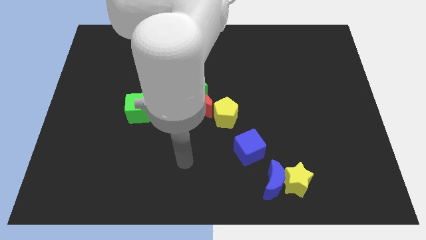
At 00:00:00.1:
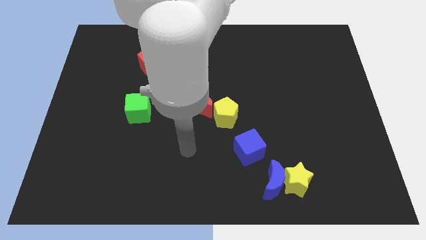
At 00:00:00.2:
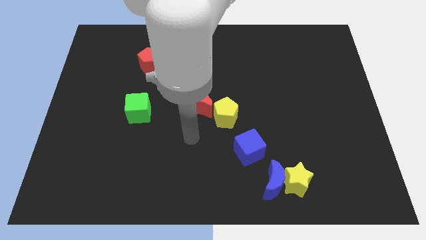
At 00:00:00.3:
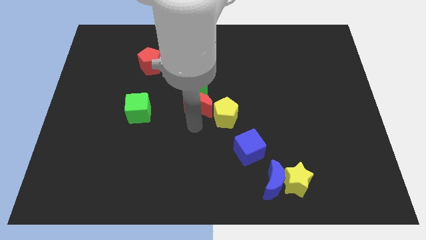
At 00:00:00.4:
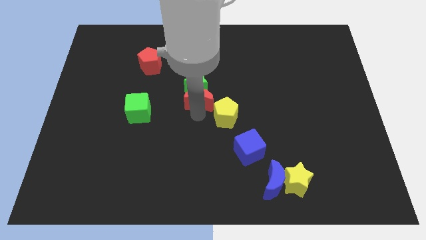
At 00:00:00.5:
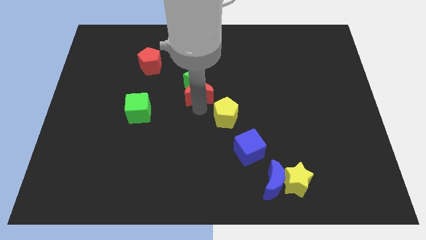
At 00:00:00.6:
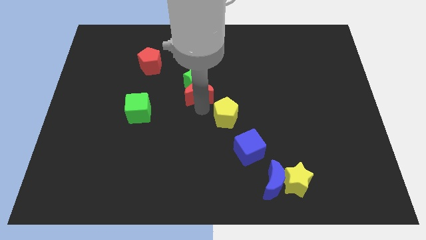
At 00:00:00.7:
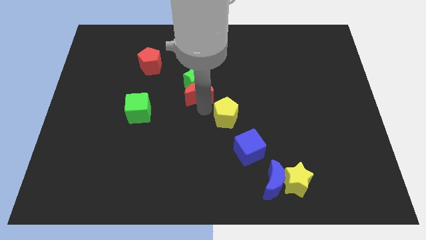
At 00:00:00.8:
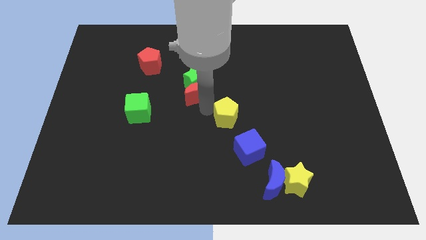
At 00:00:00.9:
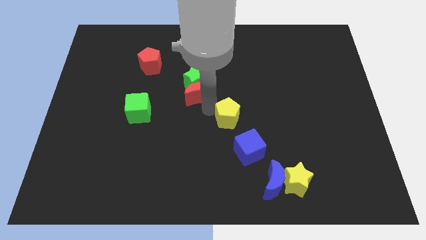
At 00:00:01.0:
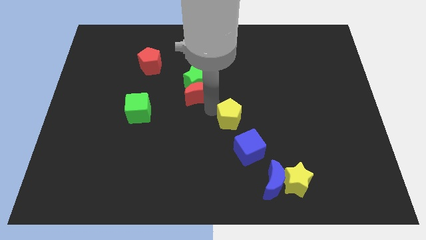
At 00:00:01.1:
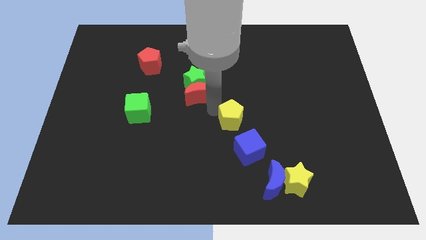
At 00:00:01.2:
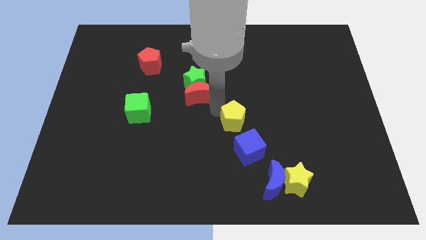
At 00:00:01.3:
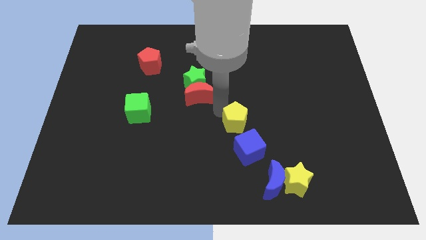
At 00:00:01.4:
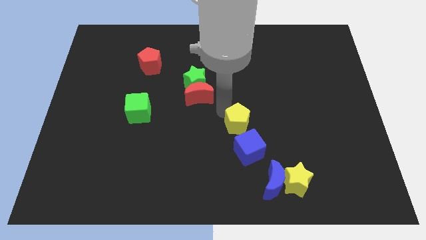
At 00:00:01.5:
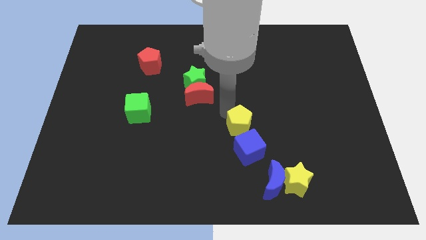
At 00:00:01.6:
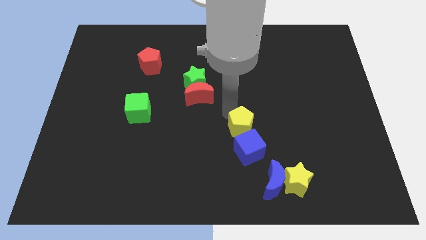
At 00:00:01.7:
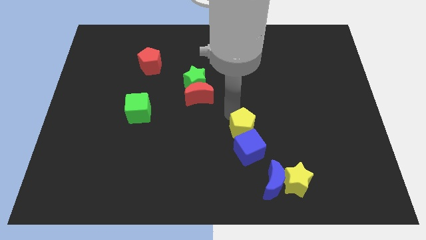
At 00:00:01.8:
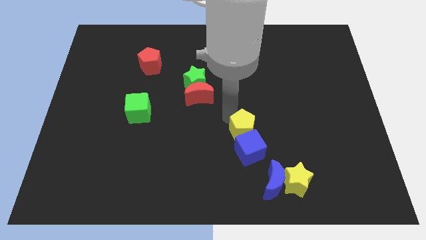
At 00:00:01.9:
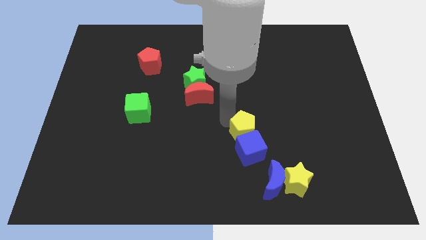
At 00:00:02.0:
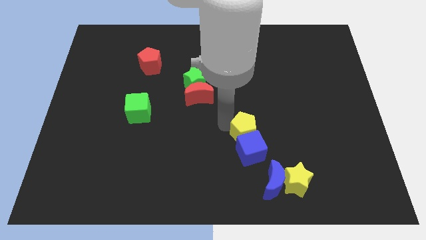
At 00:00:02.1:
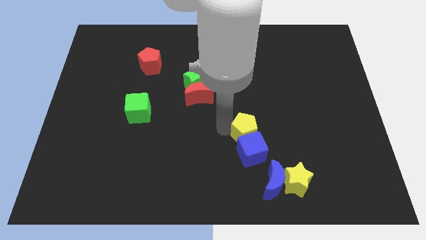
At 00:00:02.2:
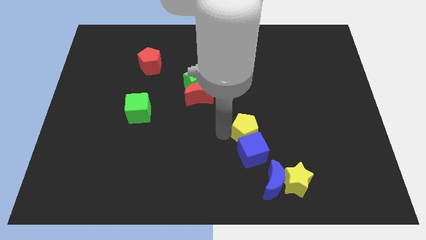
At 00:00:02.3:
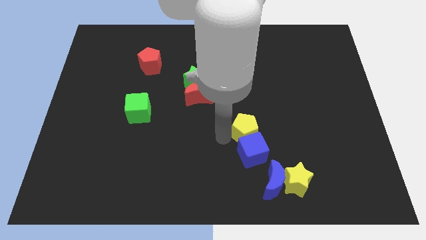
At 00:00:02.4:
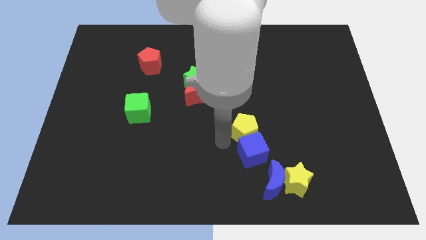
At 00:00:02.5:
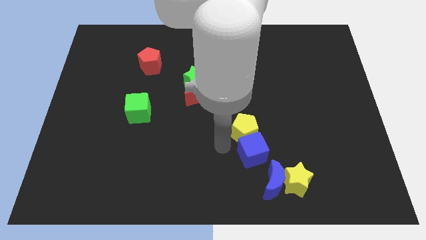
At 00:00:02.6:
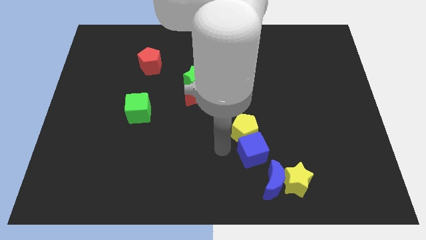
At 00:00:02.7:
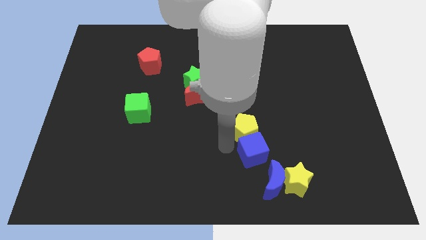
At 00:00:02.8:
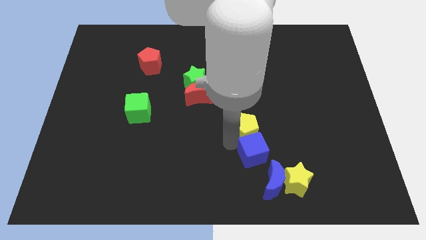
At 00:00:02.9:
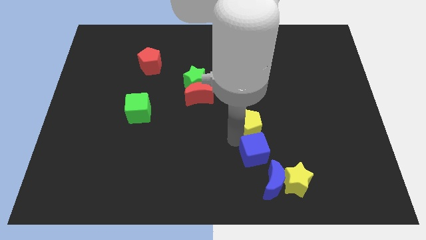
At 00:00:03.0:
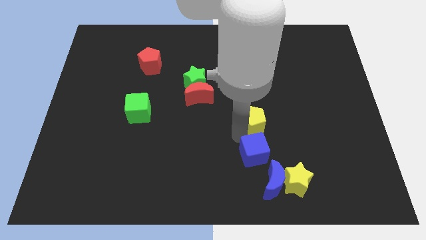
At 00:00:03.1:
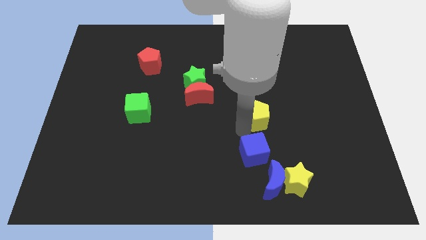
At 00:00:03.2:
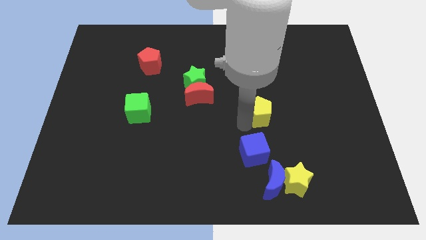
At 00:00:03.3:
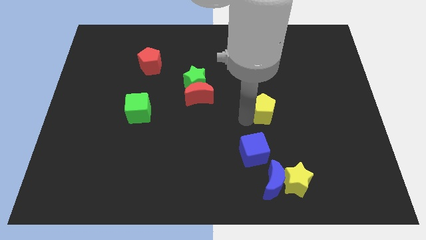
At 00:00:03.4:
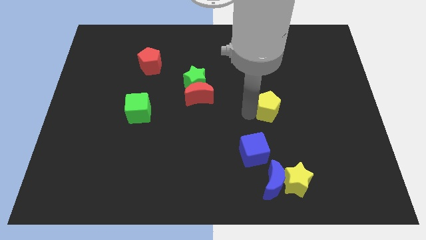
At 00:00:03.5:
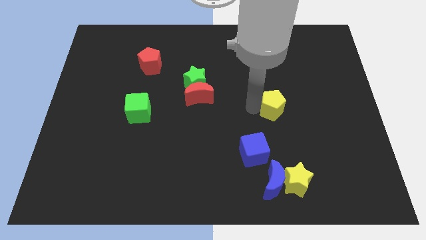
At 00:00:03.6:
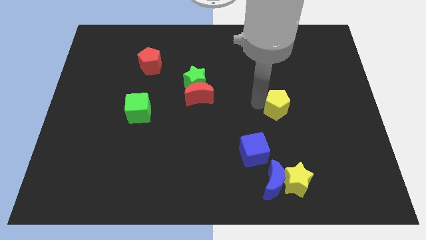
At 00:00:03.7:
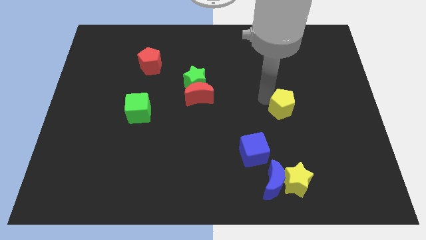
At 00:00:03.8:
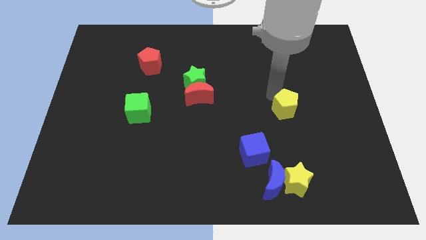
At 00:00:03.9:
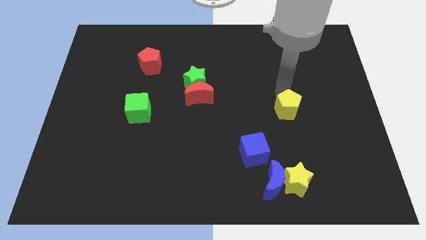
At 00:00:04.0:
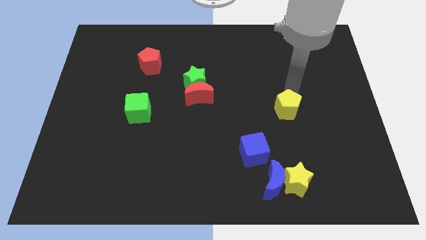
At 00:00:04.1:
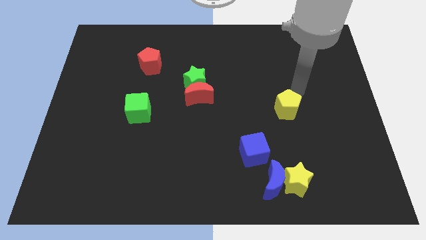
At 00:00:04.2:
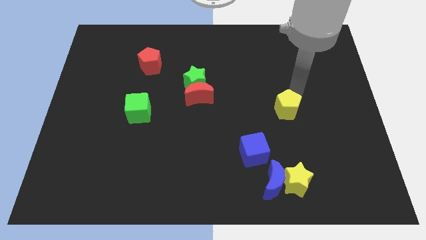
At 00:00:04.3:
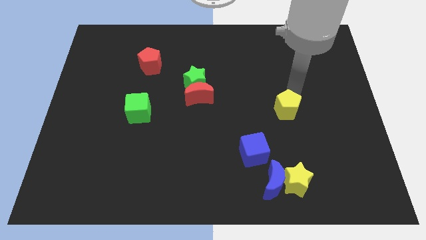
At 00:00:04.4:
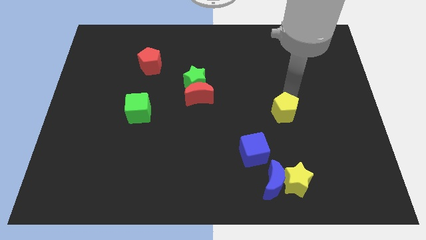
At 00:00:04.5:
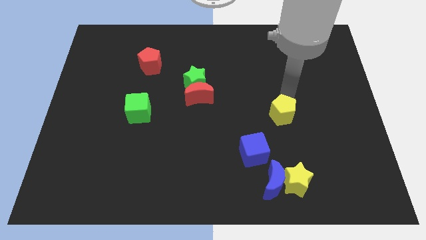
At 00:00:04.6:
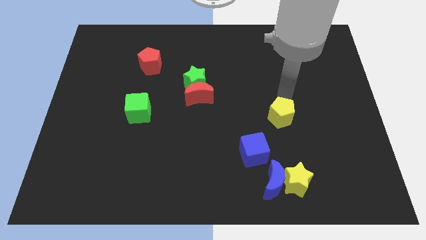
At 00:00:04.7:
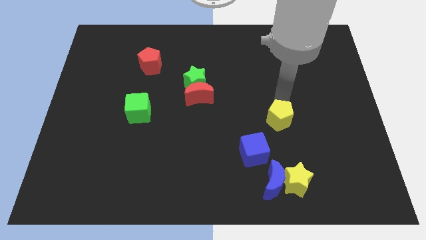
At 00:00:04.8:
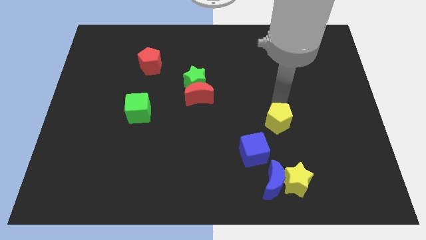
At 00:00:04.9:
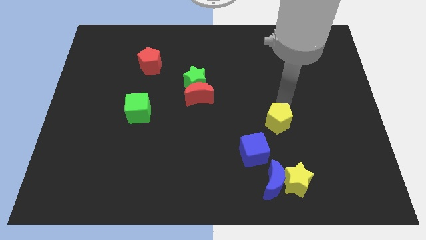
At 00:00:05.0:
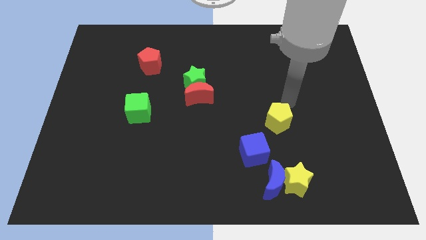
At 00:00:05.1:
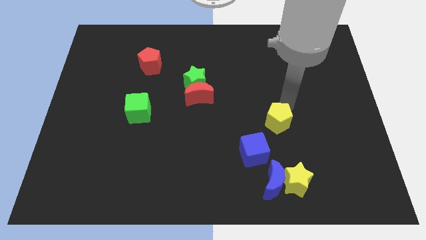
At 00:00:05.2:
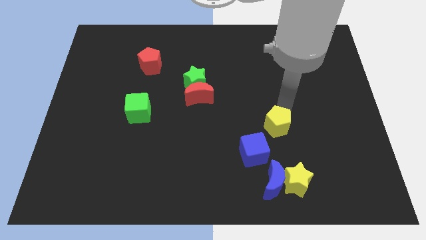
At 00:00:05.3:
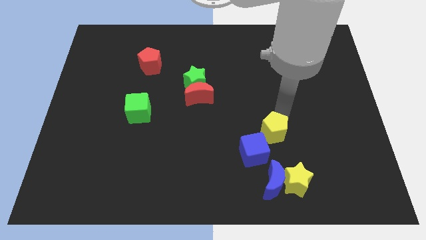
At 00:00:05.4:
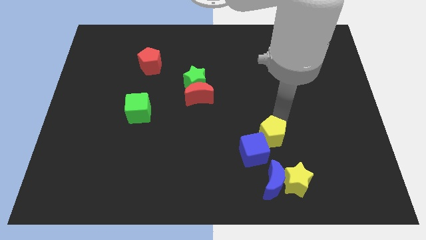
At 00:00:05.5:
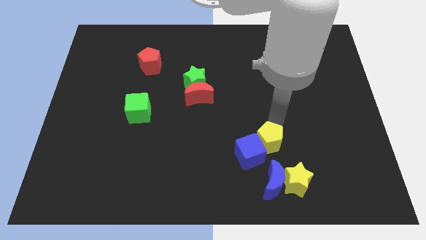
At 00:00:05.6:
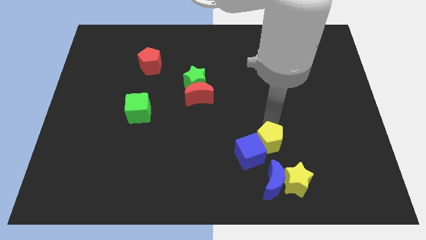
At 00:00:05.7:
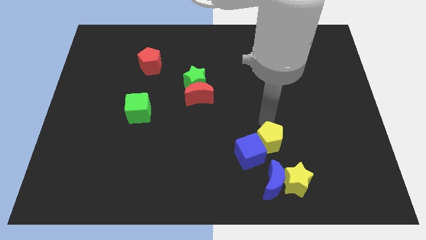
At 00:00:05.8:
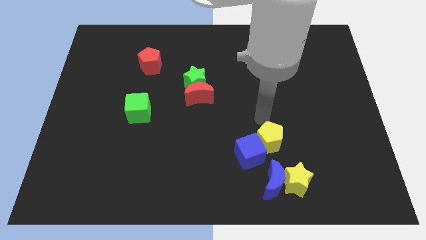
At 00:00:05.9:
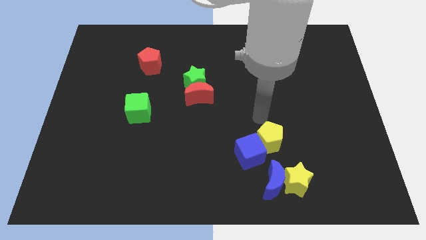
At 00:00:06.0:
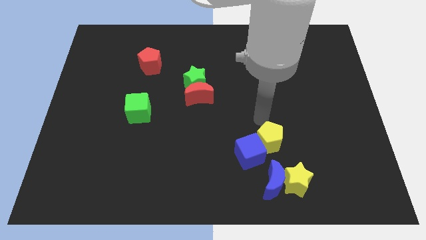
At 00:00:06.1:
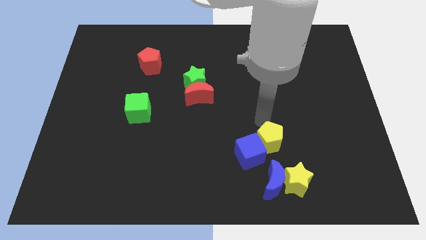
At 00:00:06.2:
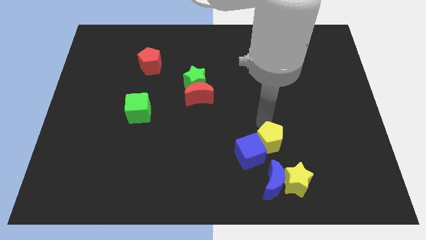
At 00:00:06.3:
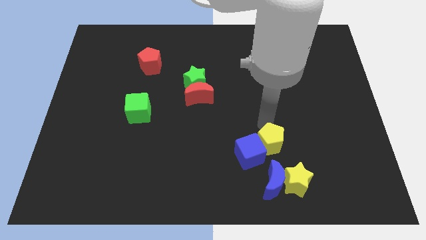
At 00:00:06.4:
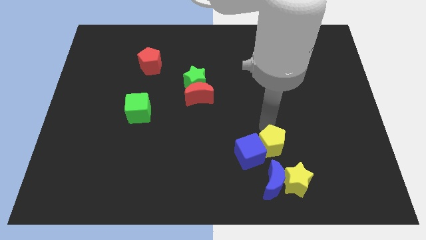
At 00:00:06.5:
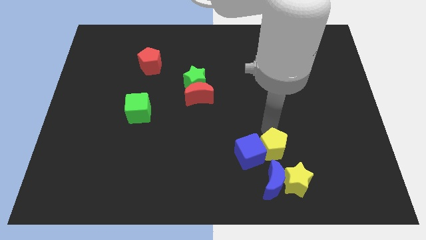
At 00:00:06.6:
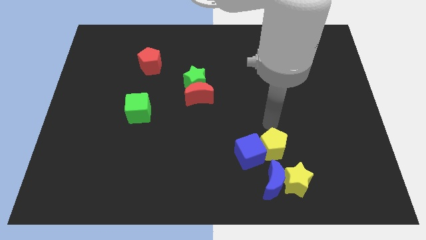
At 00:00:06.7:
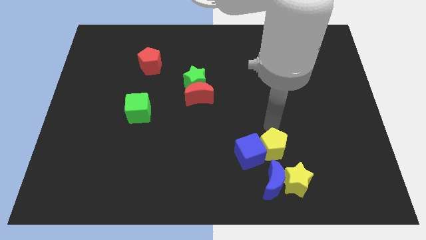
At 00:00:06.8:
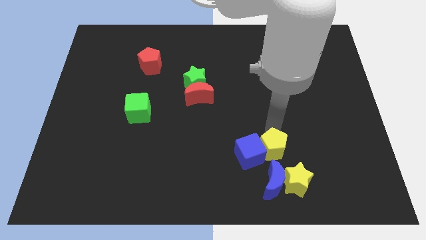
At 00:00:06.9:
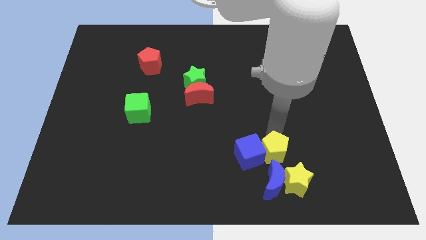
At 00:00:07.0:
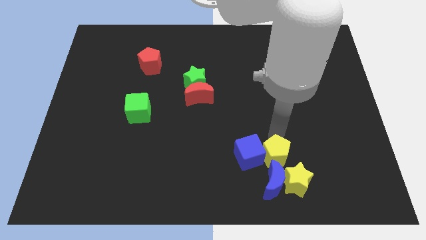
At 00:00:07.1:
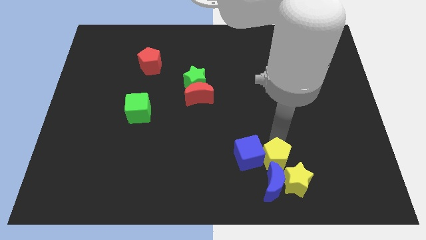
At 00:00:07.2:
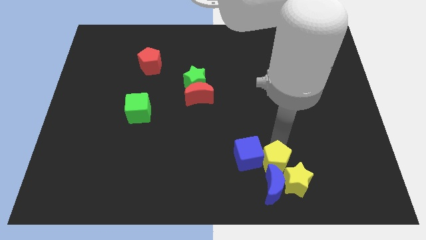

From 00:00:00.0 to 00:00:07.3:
move the yellow pentagon to the blue moon

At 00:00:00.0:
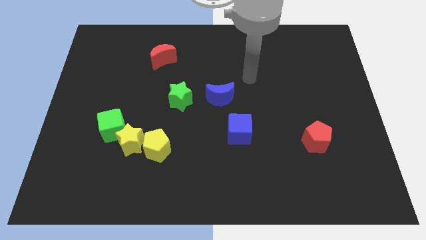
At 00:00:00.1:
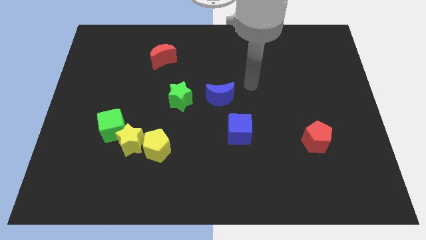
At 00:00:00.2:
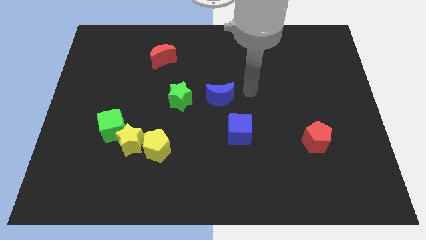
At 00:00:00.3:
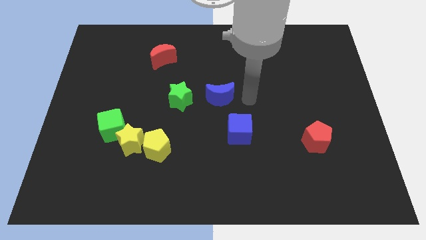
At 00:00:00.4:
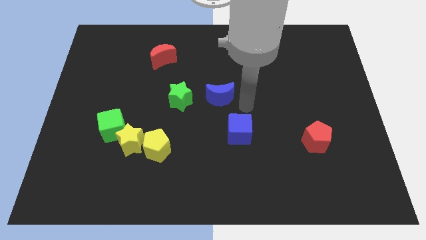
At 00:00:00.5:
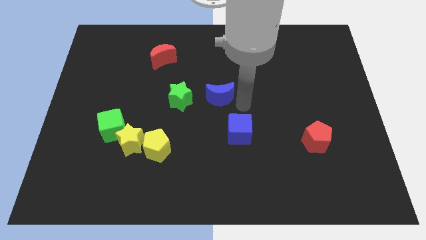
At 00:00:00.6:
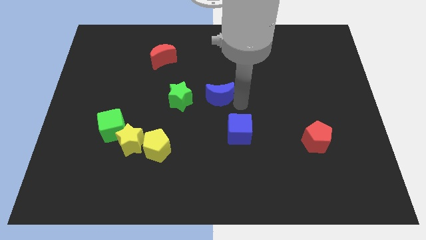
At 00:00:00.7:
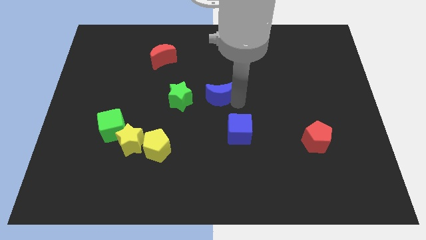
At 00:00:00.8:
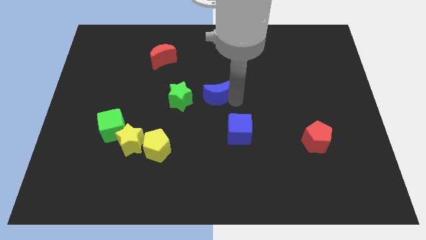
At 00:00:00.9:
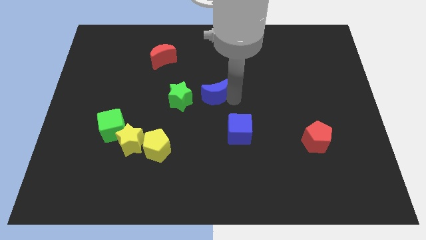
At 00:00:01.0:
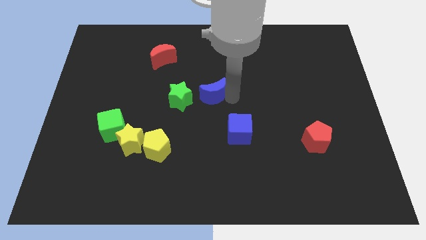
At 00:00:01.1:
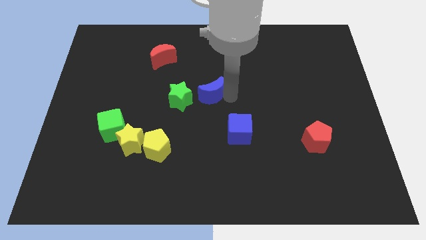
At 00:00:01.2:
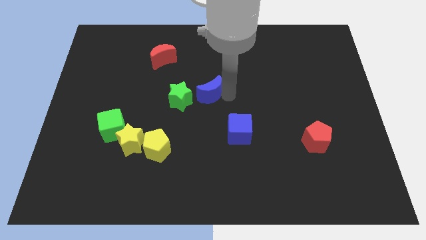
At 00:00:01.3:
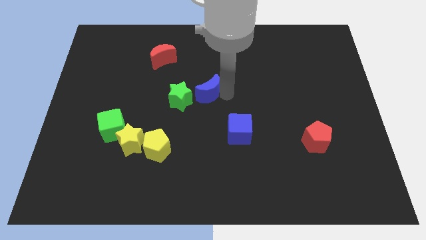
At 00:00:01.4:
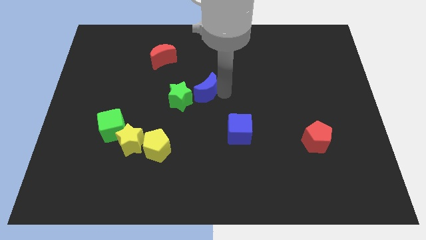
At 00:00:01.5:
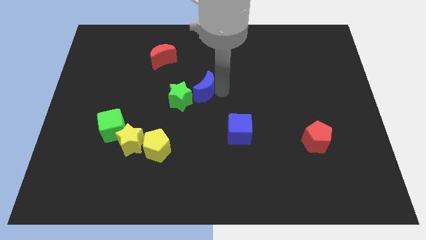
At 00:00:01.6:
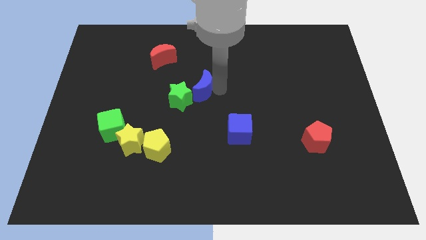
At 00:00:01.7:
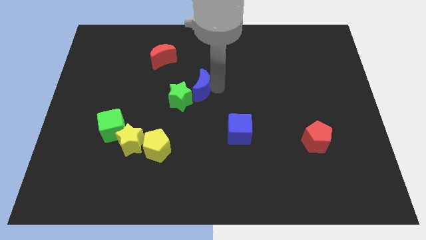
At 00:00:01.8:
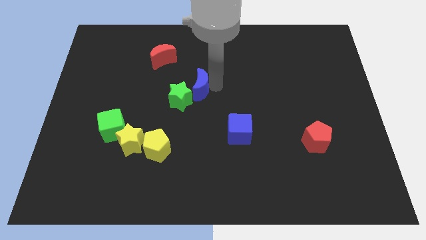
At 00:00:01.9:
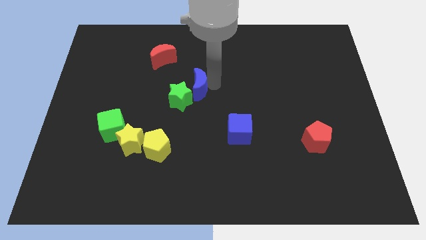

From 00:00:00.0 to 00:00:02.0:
slide the blue moon close to the green star
